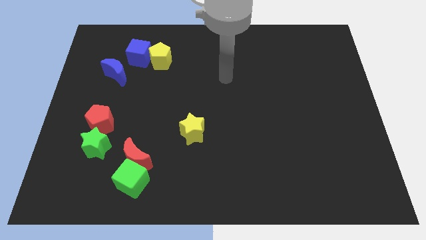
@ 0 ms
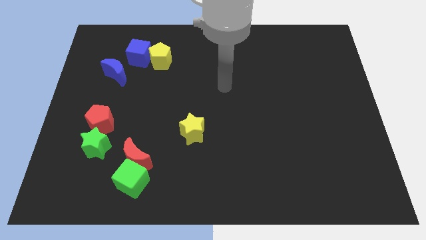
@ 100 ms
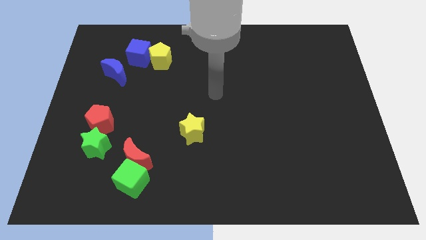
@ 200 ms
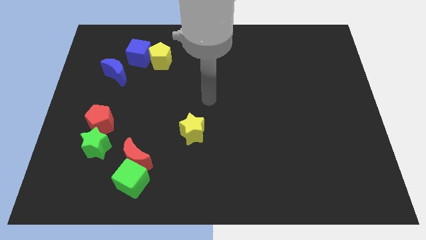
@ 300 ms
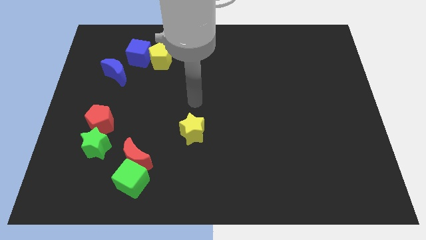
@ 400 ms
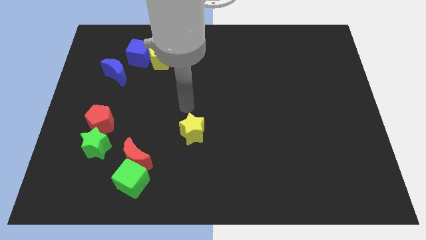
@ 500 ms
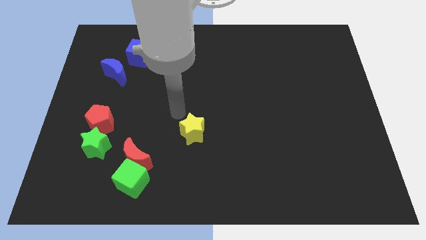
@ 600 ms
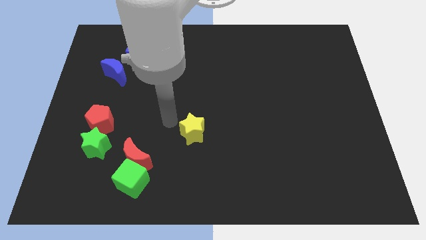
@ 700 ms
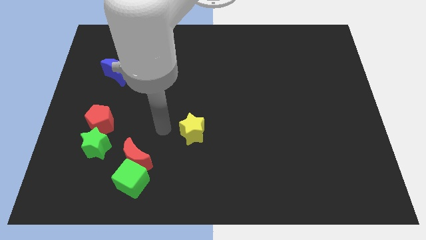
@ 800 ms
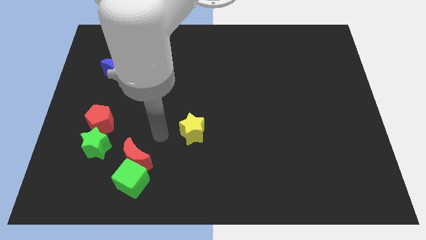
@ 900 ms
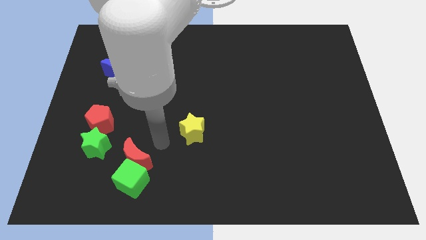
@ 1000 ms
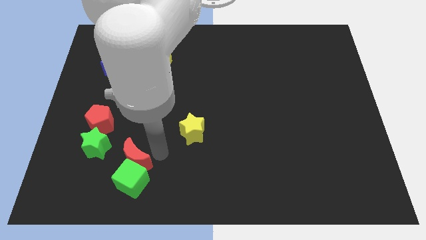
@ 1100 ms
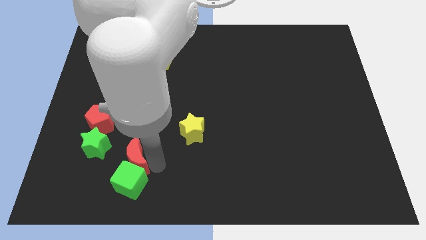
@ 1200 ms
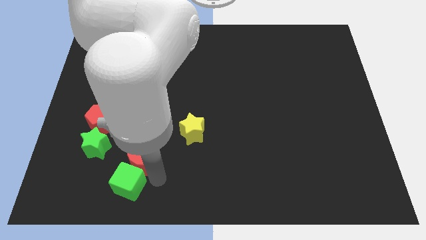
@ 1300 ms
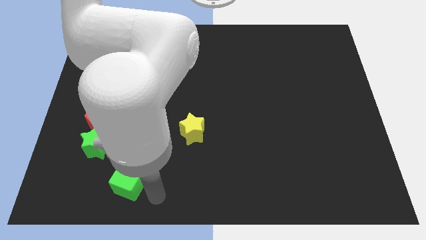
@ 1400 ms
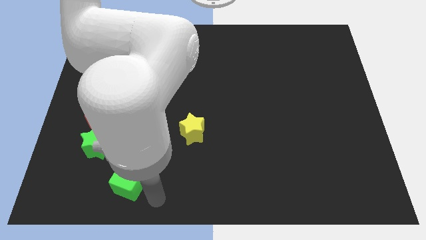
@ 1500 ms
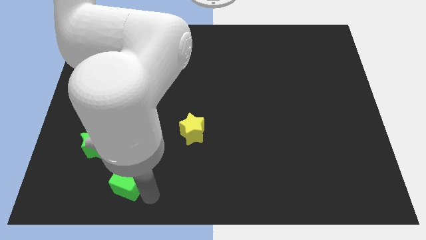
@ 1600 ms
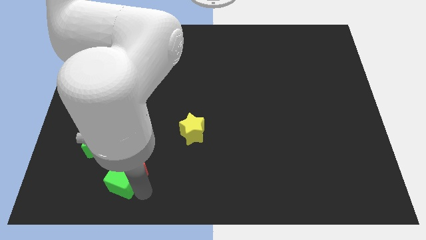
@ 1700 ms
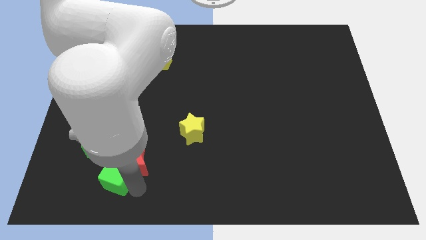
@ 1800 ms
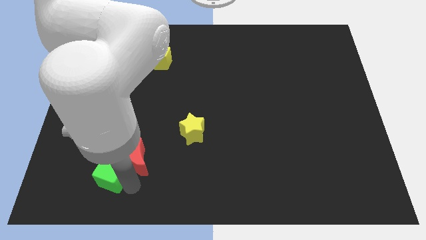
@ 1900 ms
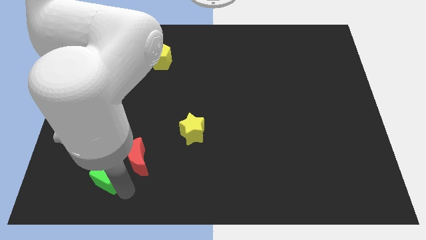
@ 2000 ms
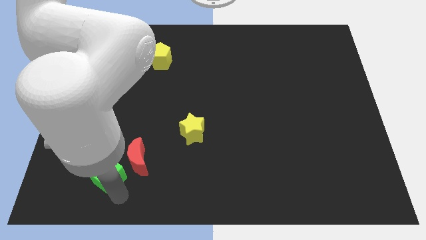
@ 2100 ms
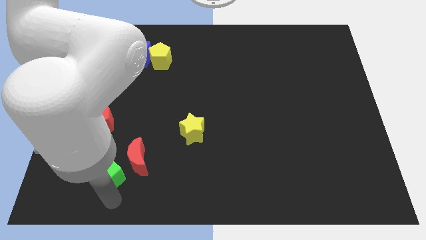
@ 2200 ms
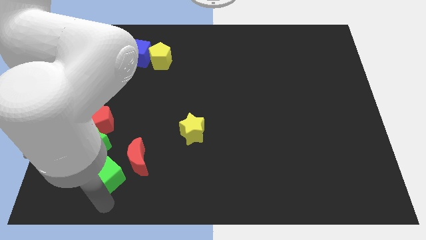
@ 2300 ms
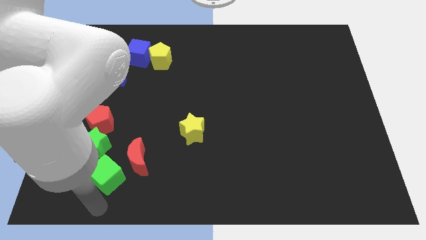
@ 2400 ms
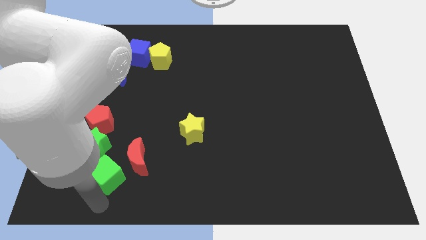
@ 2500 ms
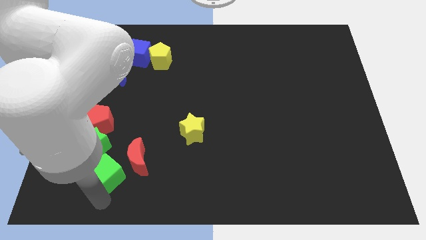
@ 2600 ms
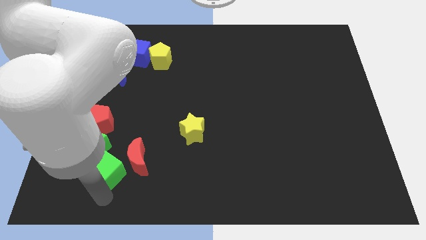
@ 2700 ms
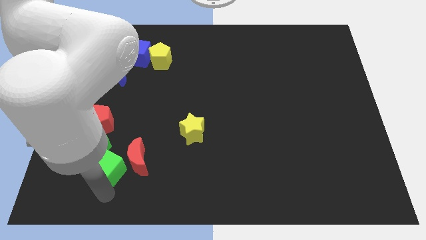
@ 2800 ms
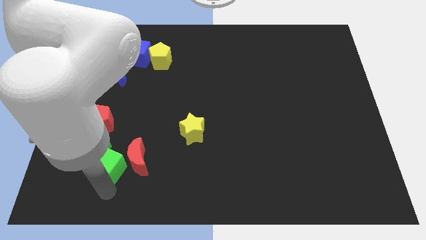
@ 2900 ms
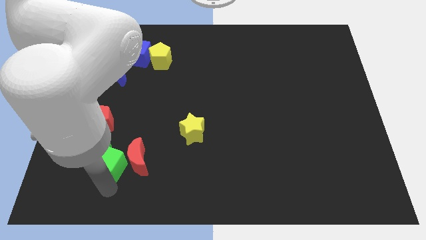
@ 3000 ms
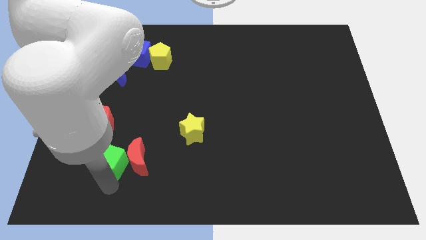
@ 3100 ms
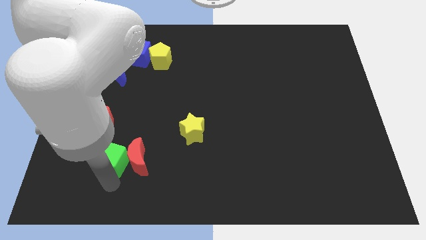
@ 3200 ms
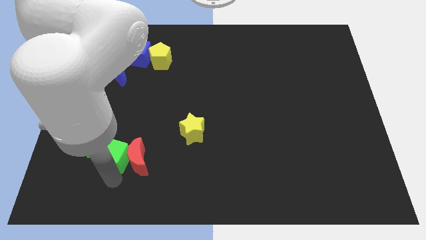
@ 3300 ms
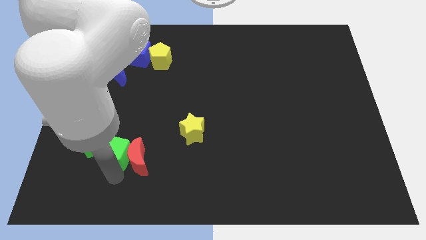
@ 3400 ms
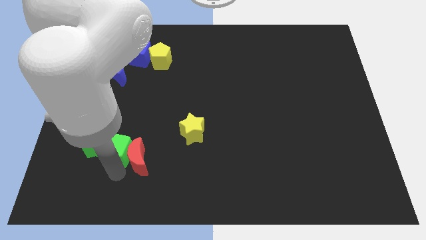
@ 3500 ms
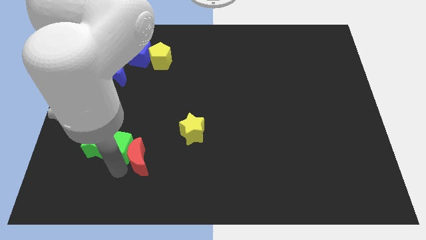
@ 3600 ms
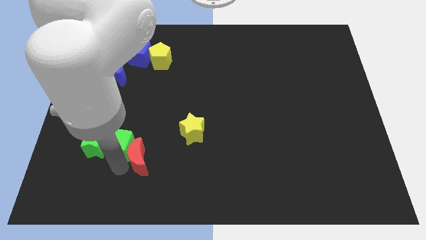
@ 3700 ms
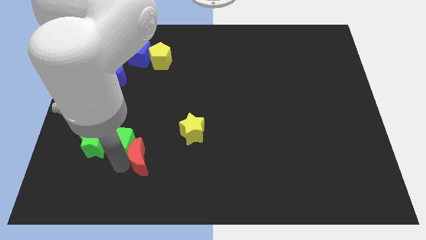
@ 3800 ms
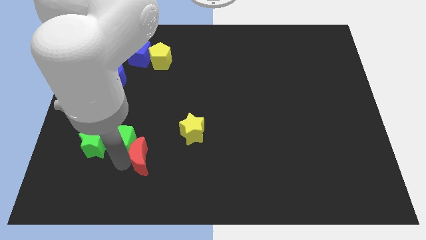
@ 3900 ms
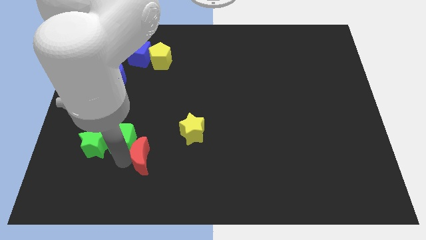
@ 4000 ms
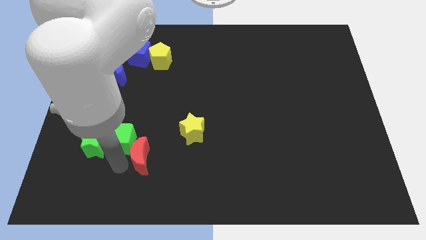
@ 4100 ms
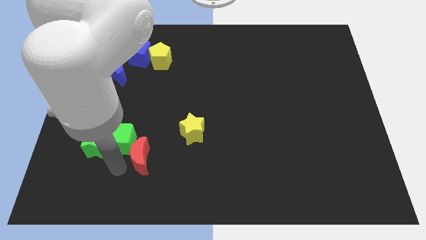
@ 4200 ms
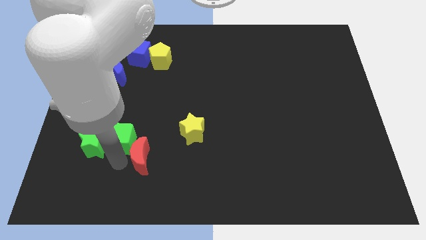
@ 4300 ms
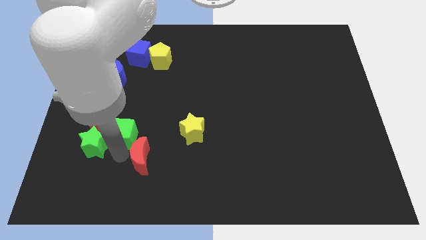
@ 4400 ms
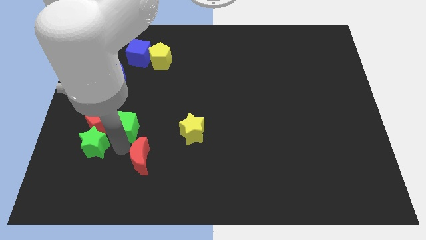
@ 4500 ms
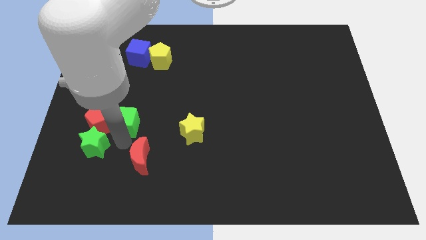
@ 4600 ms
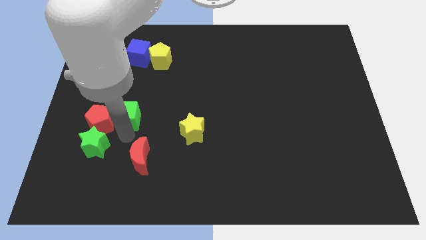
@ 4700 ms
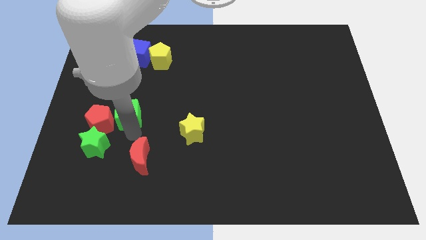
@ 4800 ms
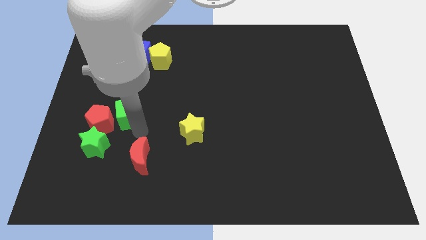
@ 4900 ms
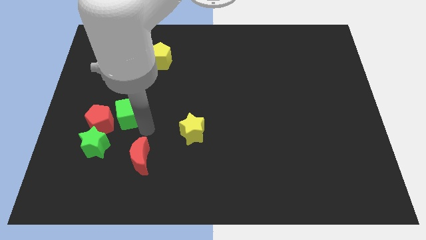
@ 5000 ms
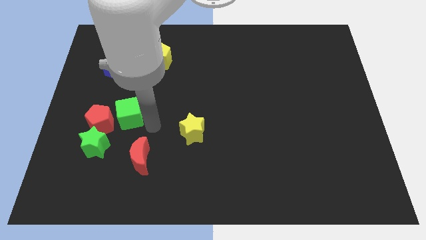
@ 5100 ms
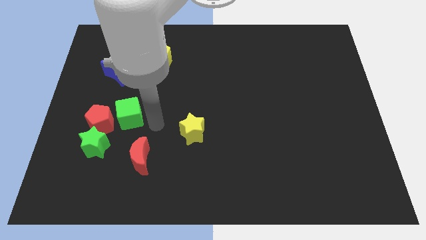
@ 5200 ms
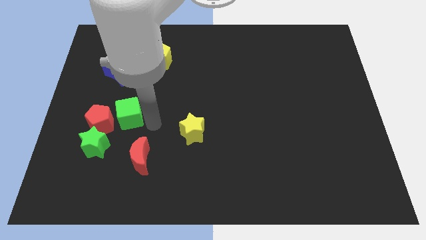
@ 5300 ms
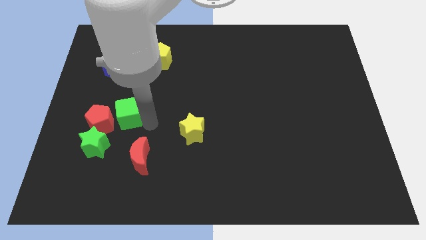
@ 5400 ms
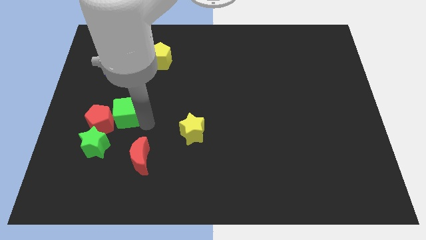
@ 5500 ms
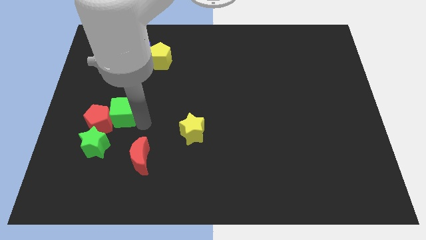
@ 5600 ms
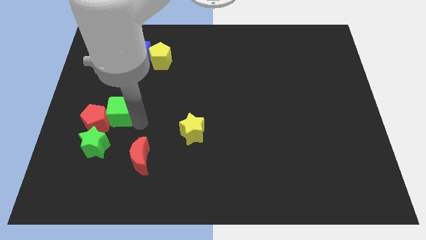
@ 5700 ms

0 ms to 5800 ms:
move the green cube to the top side of the green star

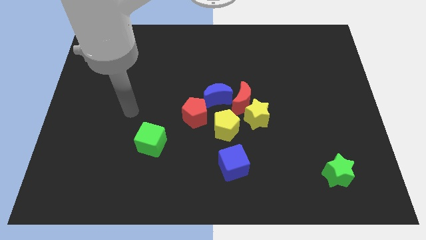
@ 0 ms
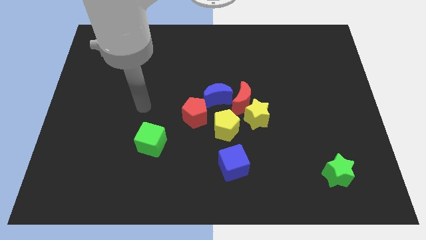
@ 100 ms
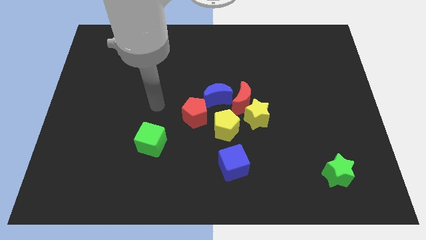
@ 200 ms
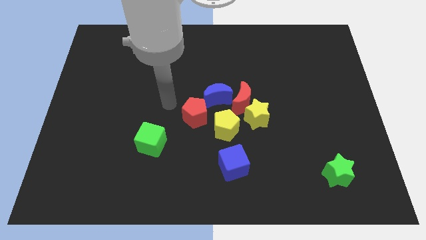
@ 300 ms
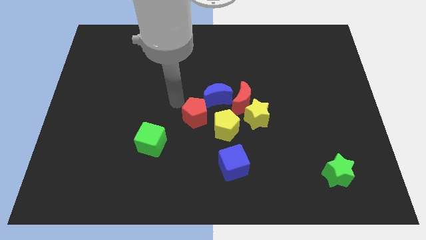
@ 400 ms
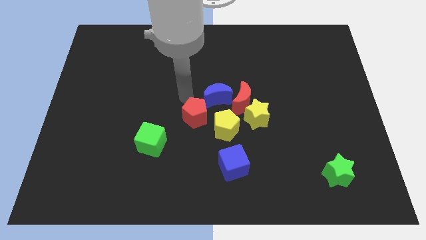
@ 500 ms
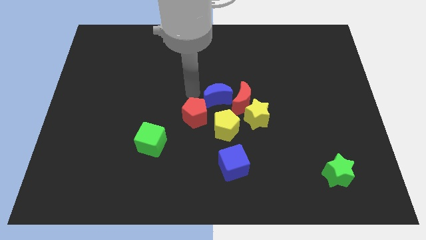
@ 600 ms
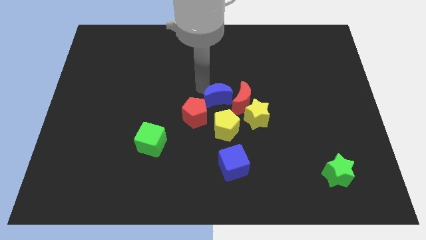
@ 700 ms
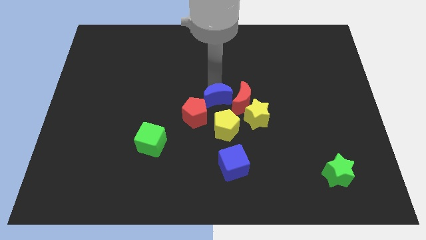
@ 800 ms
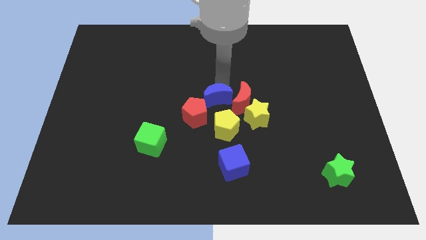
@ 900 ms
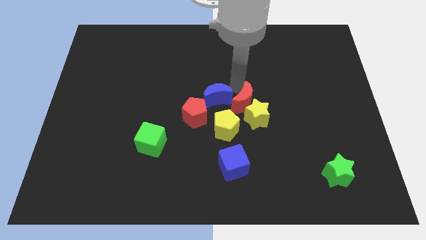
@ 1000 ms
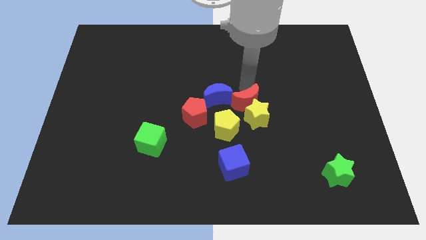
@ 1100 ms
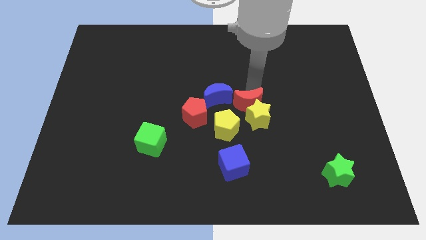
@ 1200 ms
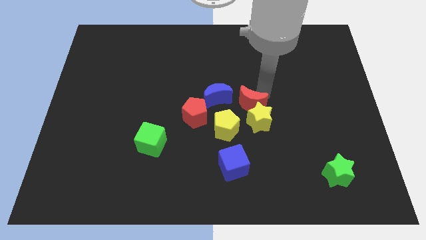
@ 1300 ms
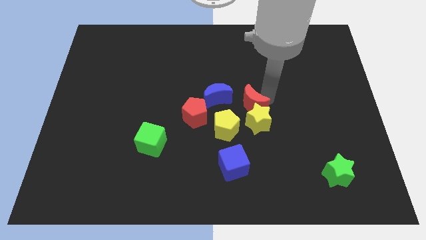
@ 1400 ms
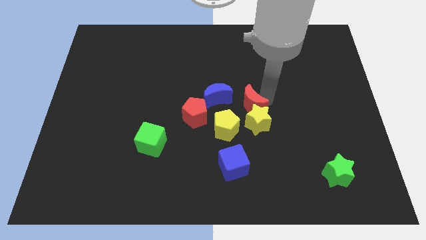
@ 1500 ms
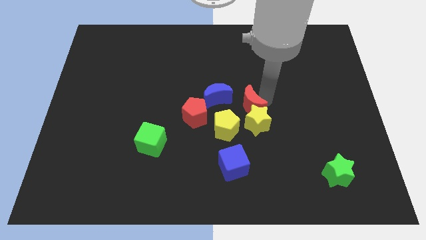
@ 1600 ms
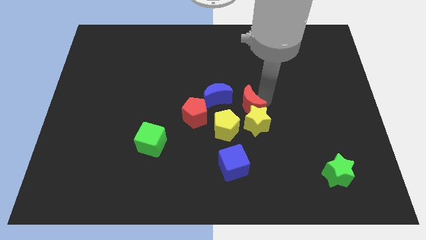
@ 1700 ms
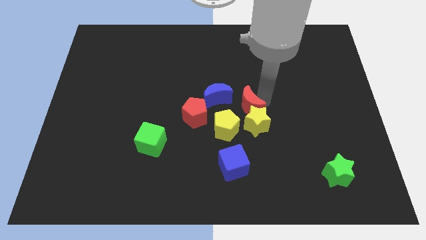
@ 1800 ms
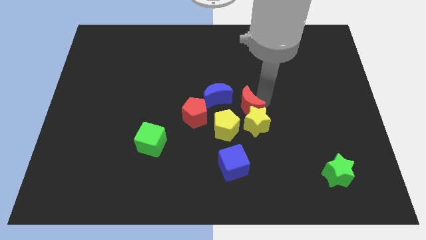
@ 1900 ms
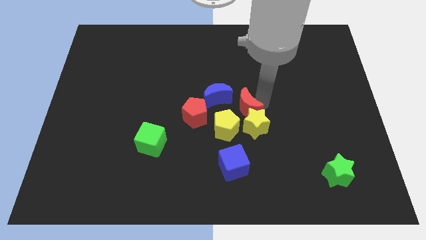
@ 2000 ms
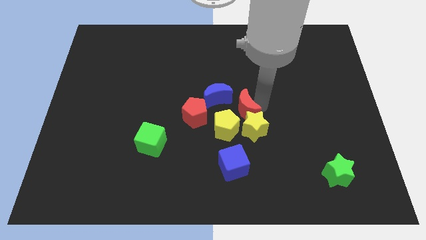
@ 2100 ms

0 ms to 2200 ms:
put the yellow star to the bottom right side of the yellow pentagon
